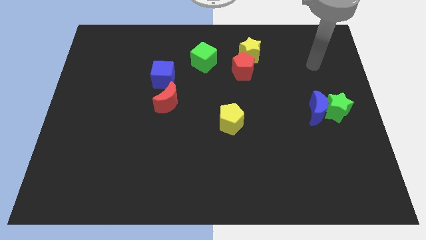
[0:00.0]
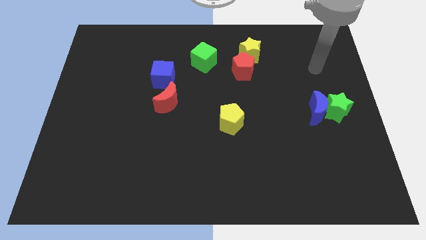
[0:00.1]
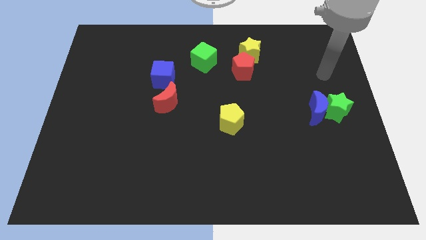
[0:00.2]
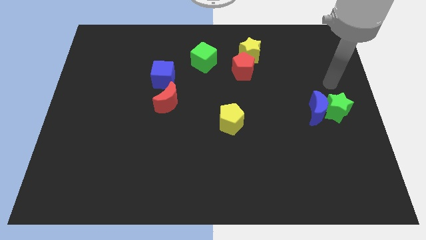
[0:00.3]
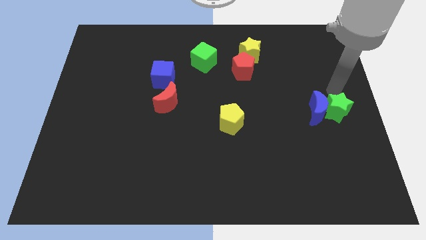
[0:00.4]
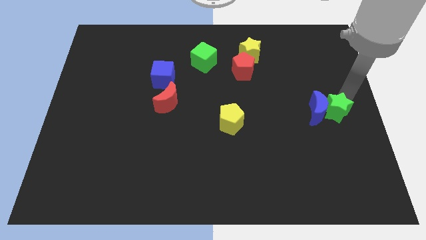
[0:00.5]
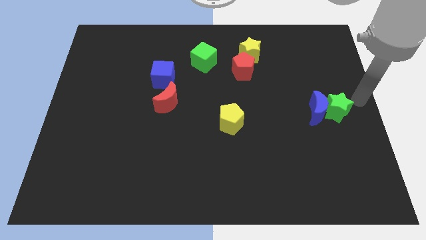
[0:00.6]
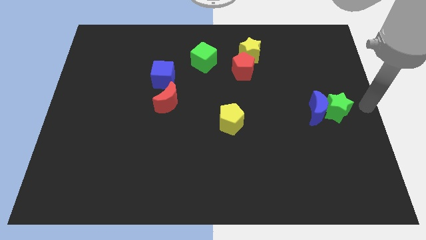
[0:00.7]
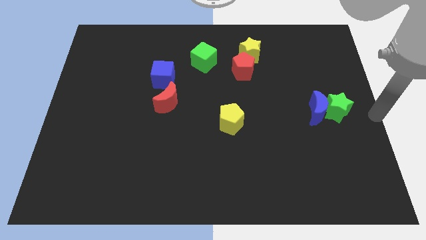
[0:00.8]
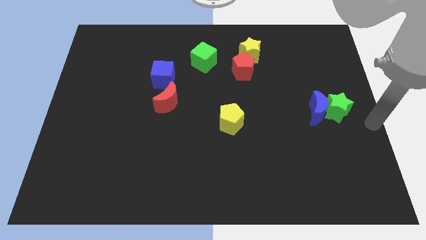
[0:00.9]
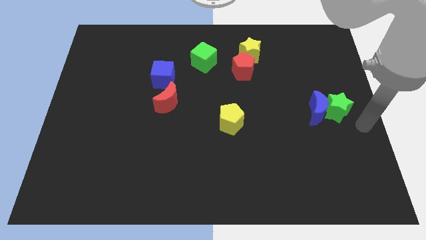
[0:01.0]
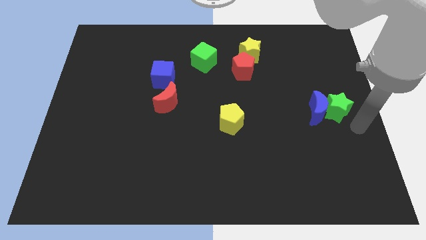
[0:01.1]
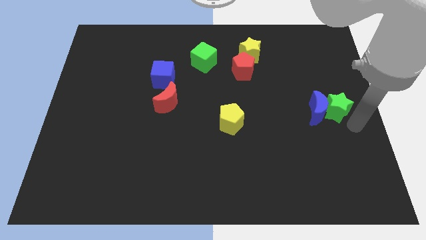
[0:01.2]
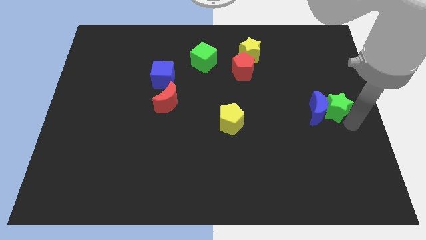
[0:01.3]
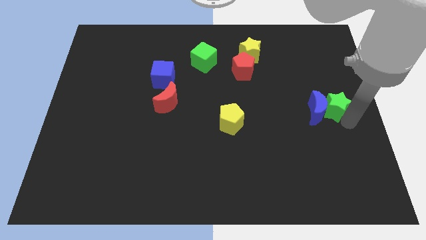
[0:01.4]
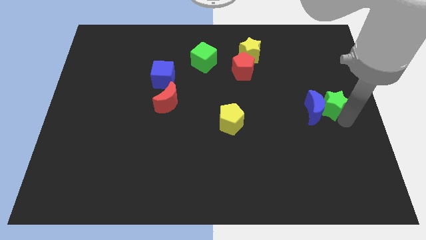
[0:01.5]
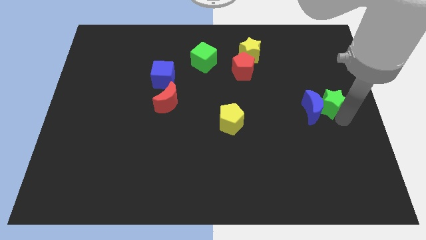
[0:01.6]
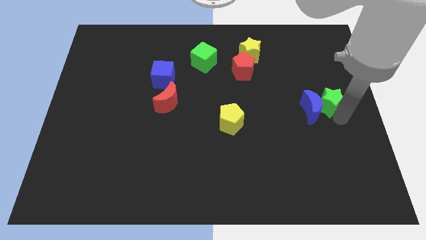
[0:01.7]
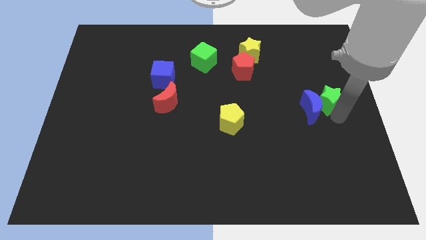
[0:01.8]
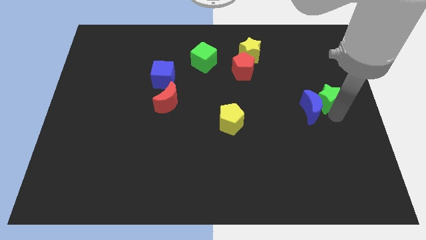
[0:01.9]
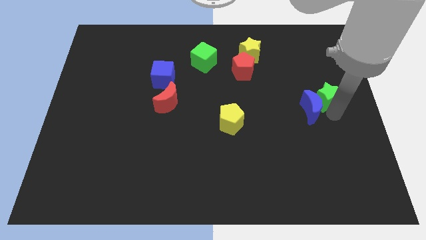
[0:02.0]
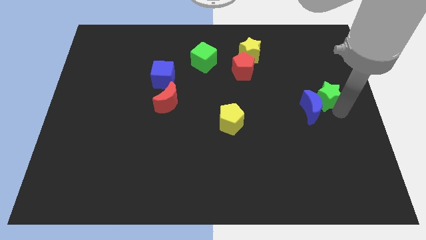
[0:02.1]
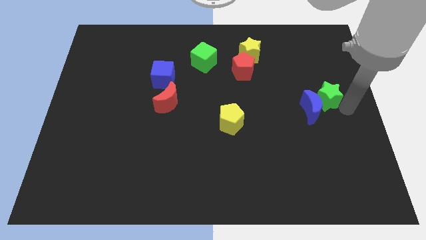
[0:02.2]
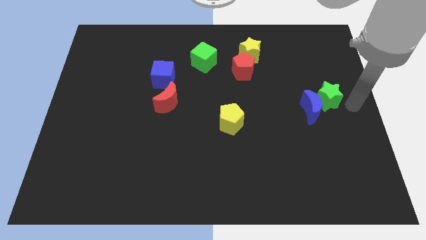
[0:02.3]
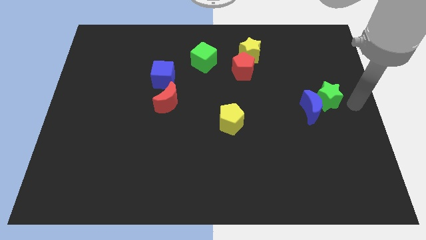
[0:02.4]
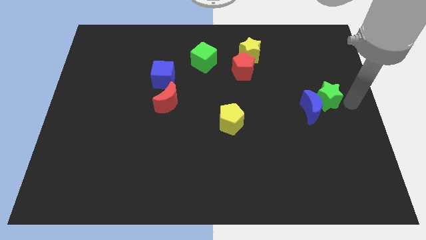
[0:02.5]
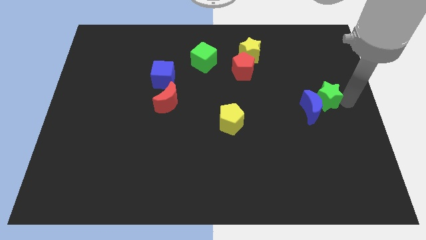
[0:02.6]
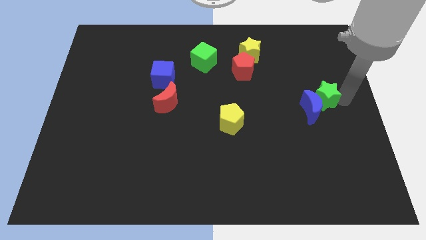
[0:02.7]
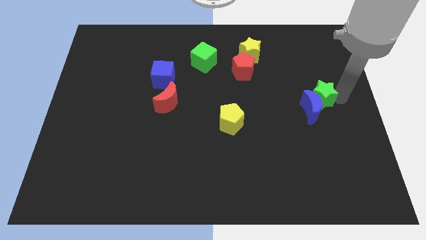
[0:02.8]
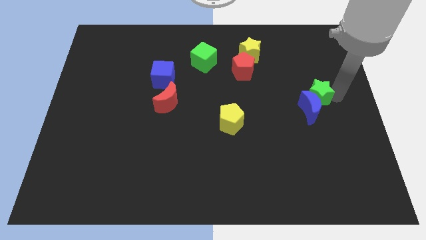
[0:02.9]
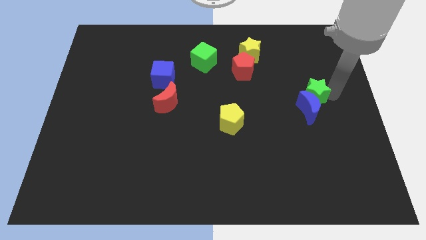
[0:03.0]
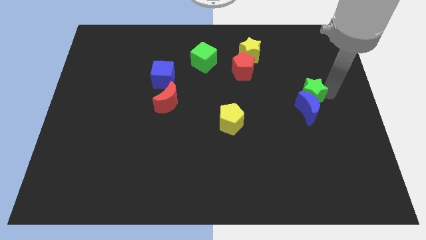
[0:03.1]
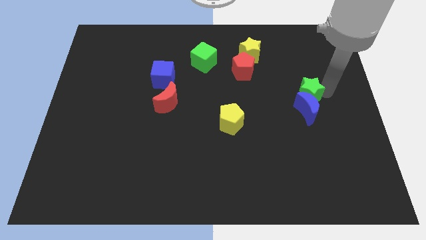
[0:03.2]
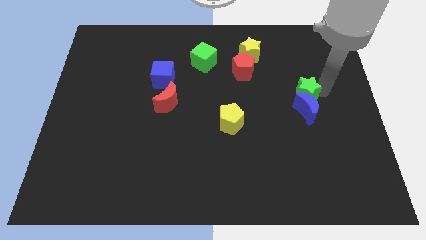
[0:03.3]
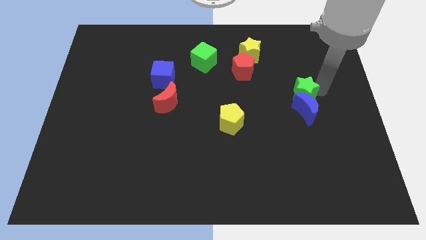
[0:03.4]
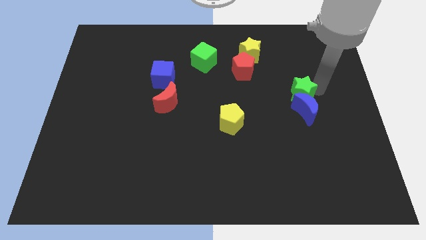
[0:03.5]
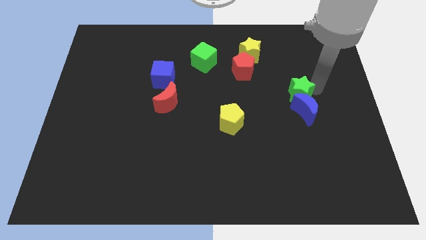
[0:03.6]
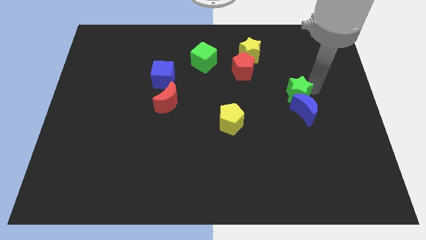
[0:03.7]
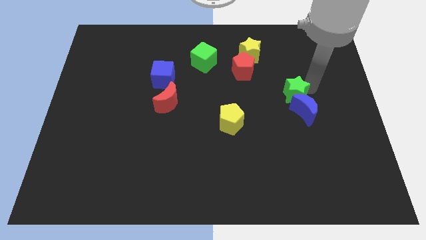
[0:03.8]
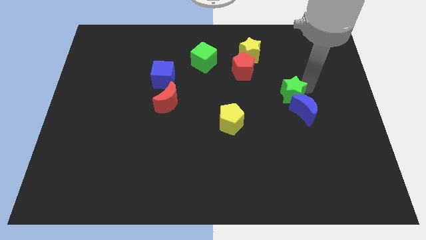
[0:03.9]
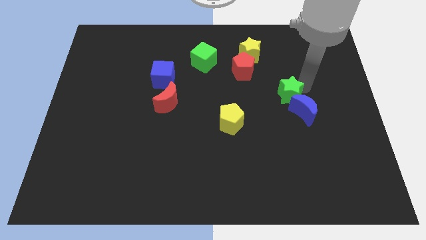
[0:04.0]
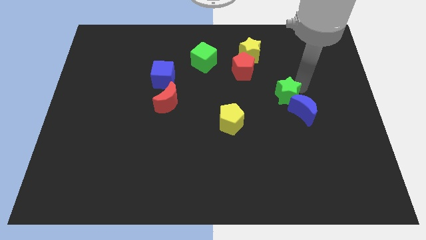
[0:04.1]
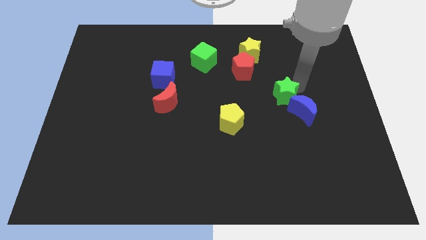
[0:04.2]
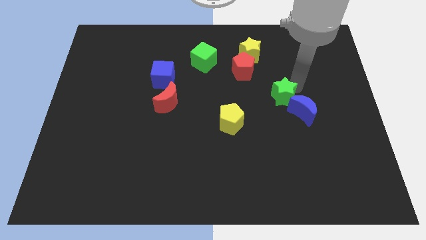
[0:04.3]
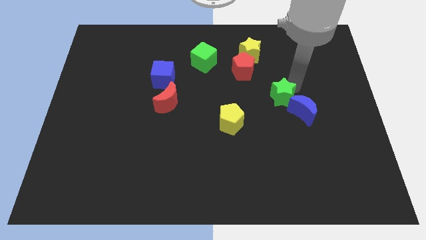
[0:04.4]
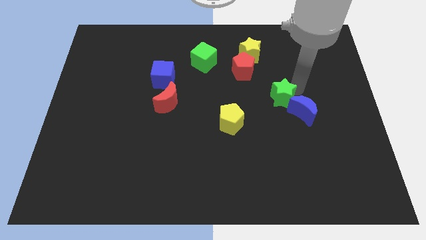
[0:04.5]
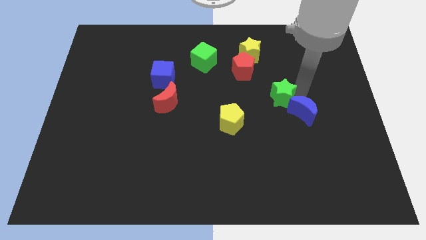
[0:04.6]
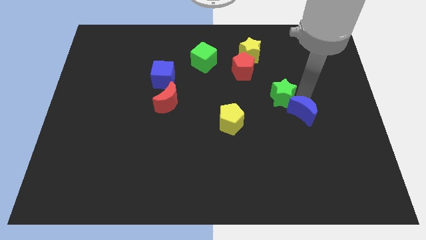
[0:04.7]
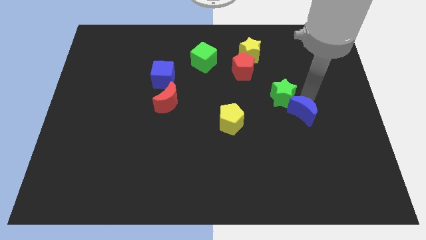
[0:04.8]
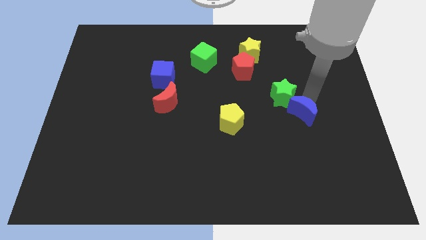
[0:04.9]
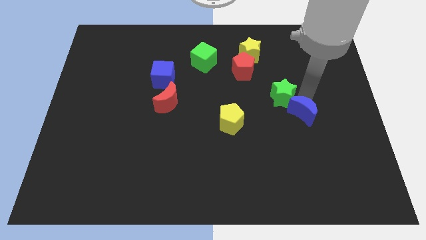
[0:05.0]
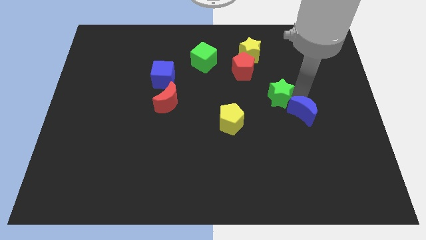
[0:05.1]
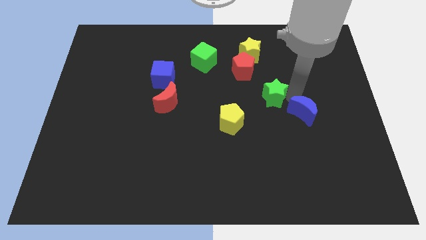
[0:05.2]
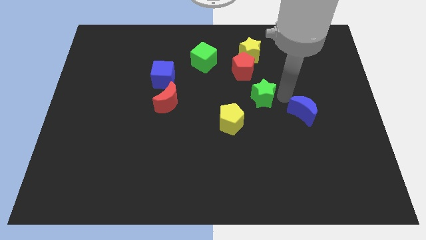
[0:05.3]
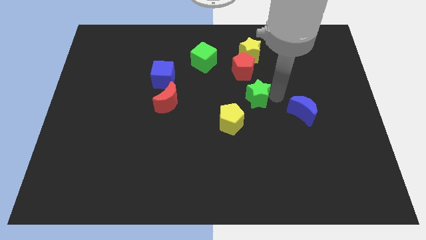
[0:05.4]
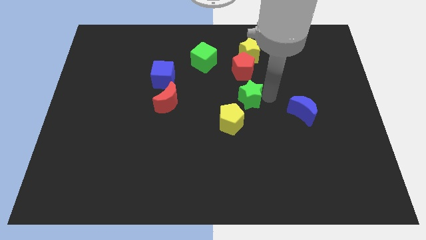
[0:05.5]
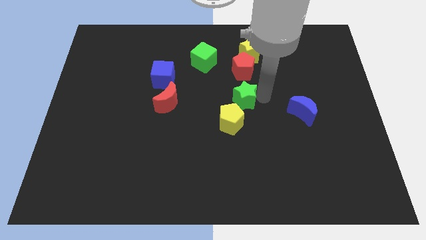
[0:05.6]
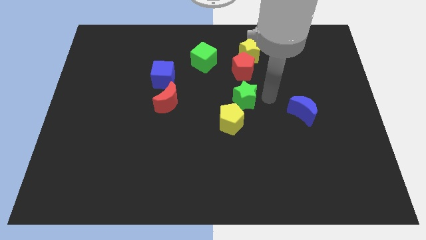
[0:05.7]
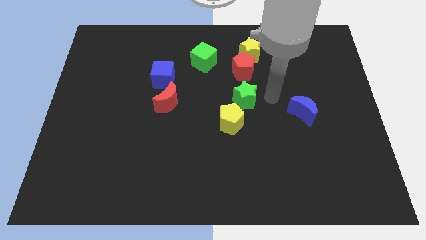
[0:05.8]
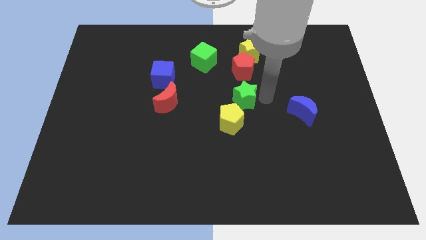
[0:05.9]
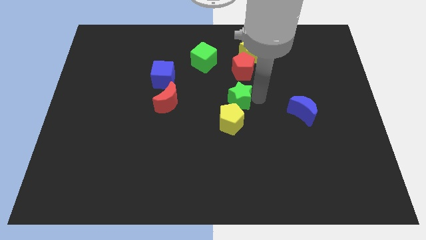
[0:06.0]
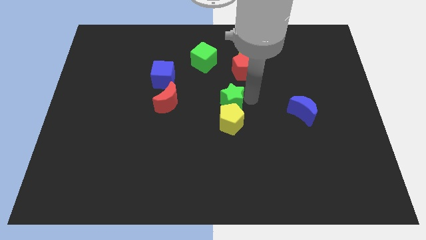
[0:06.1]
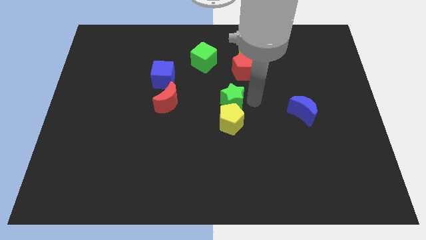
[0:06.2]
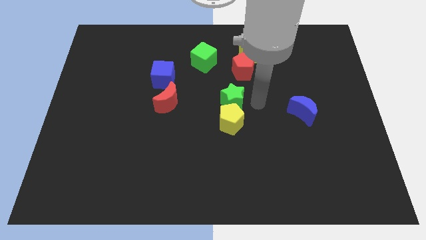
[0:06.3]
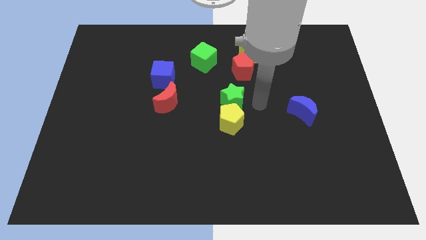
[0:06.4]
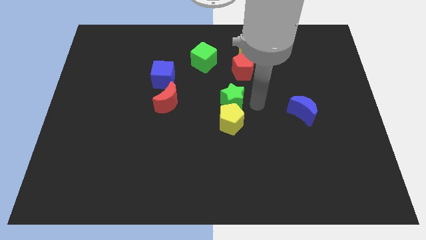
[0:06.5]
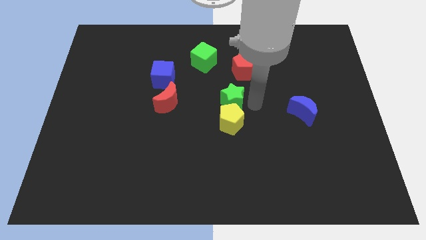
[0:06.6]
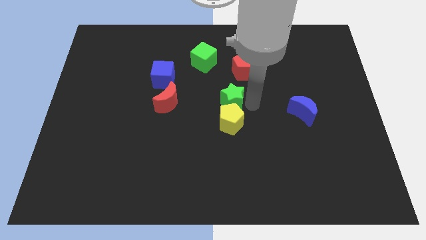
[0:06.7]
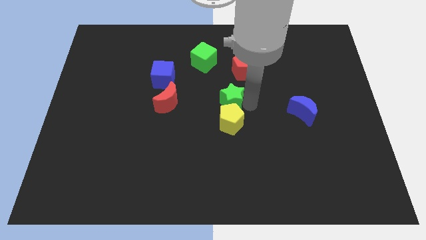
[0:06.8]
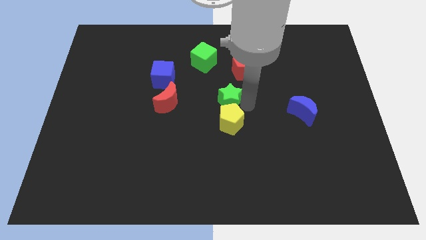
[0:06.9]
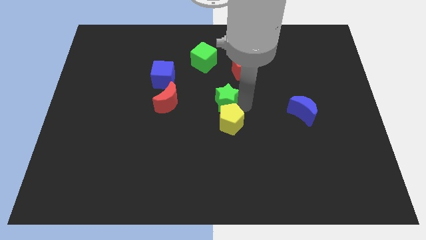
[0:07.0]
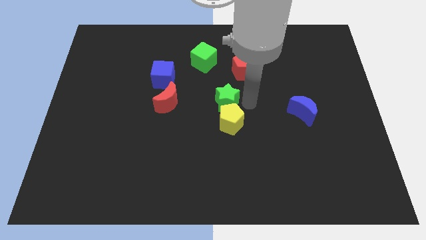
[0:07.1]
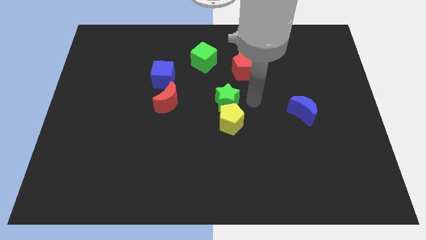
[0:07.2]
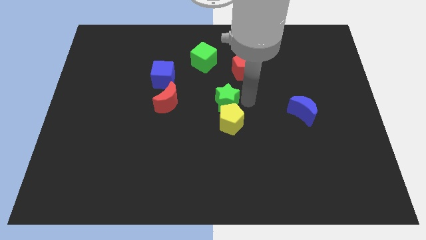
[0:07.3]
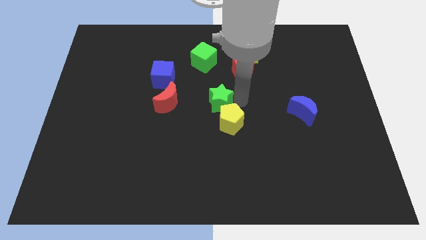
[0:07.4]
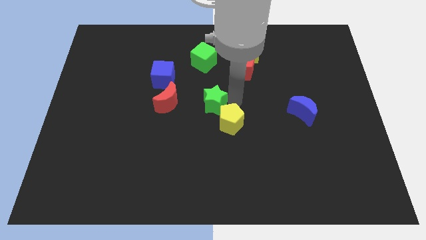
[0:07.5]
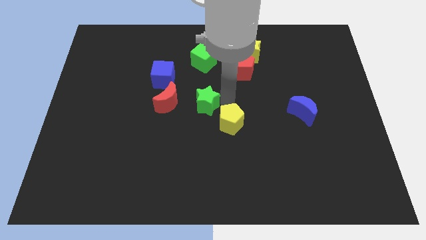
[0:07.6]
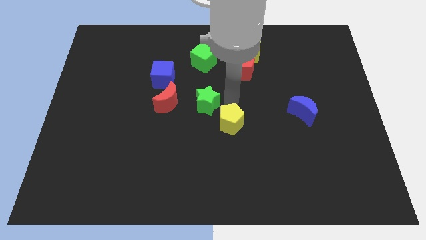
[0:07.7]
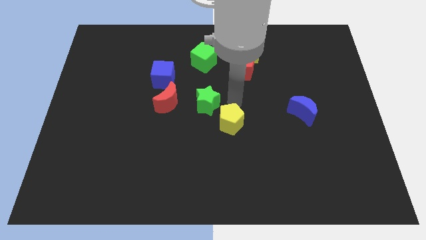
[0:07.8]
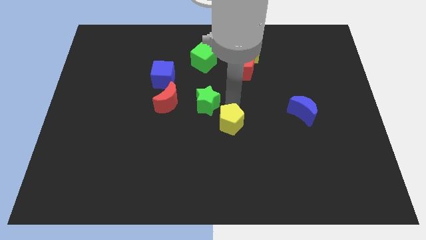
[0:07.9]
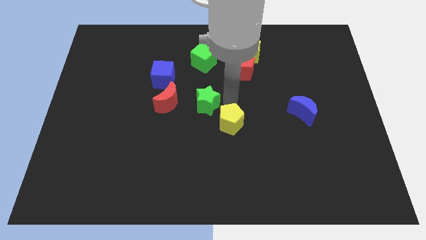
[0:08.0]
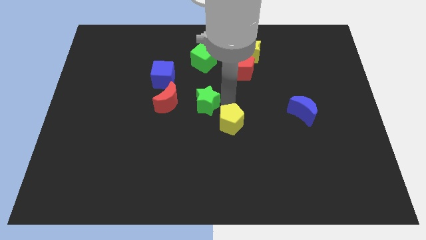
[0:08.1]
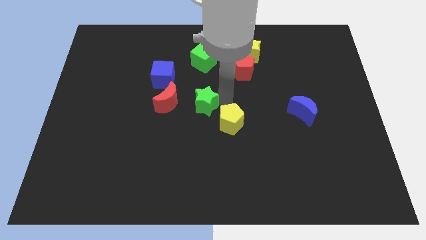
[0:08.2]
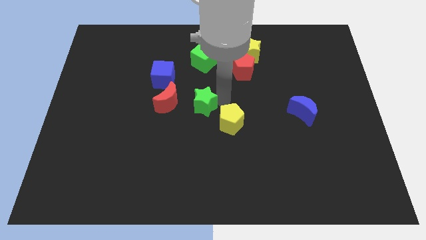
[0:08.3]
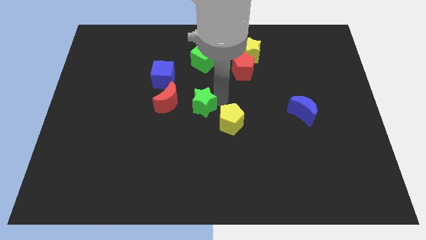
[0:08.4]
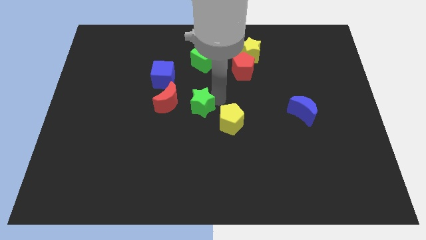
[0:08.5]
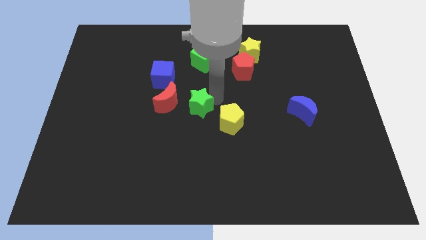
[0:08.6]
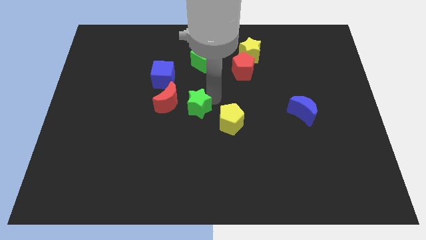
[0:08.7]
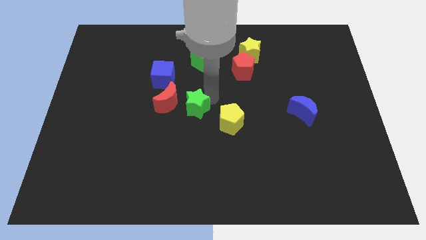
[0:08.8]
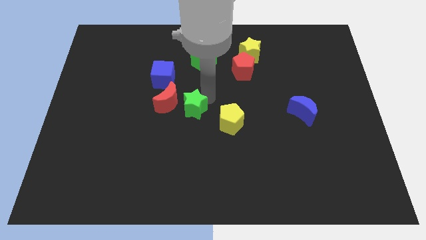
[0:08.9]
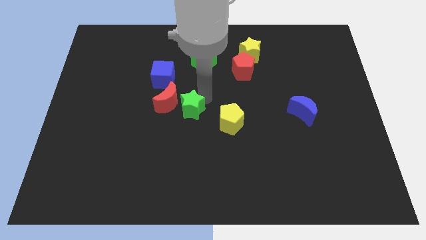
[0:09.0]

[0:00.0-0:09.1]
put the green star to the red moon
